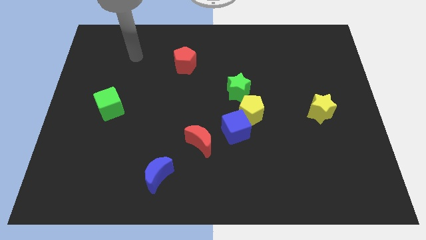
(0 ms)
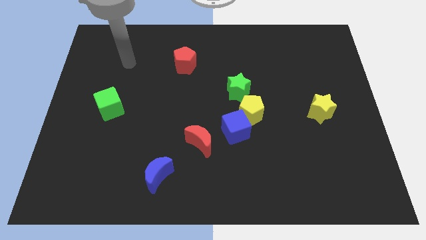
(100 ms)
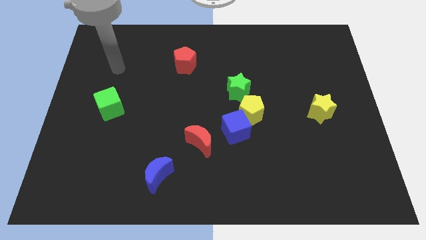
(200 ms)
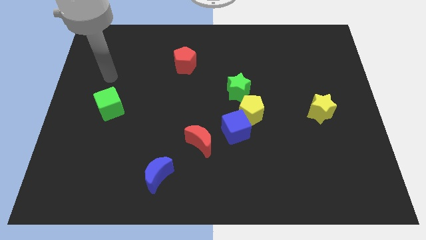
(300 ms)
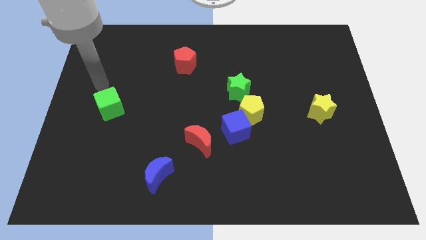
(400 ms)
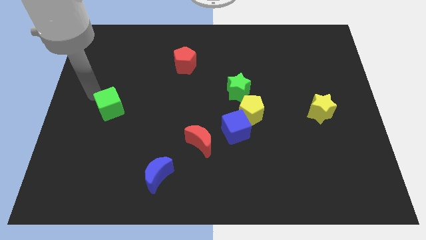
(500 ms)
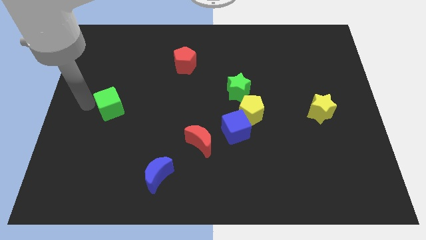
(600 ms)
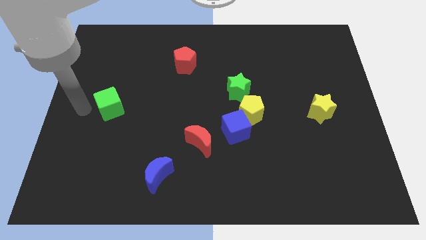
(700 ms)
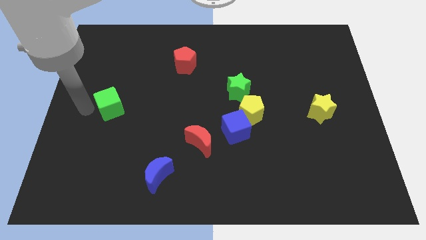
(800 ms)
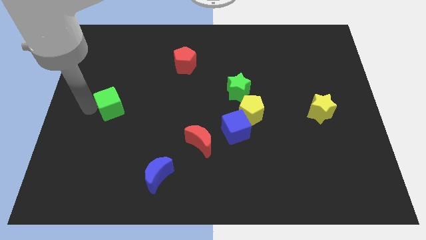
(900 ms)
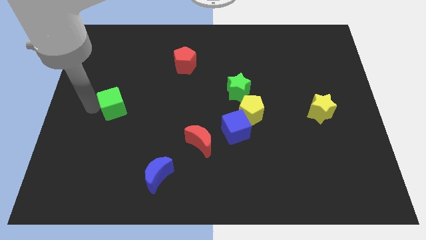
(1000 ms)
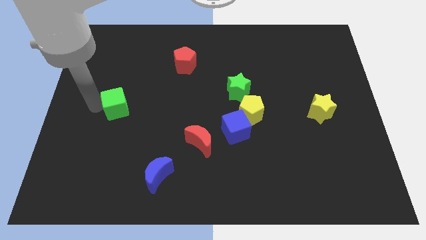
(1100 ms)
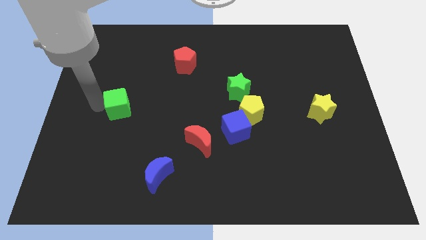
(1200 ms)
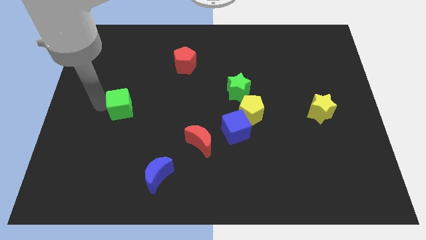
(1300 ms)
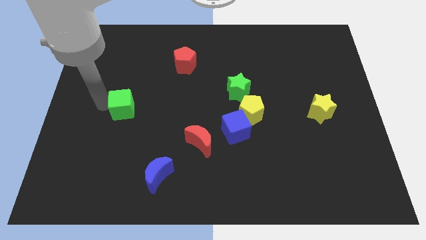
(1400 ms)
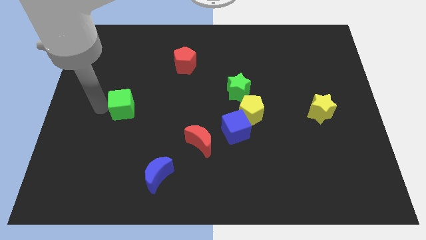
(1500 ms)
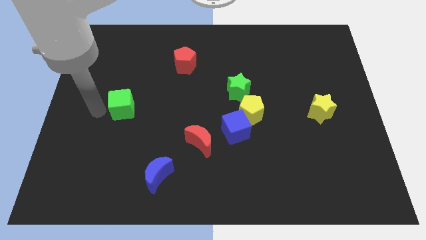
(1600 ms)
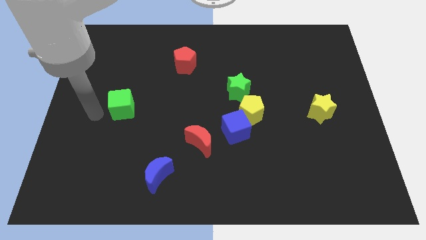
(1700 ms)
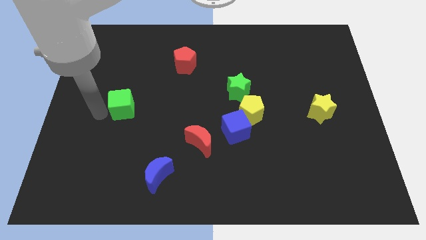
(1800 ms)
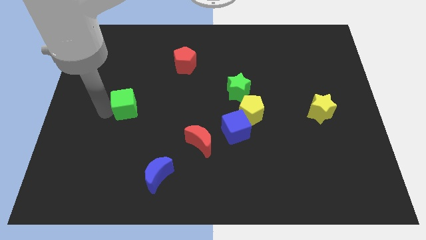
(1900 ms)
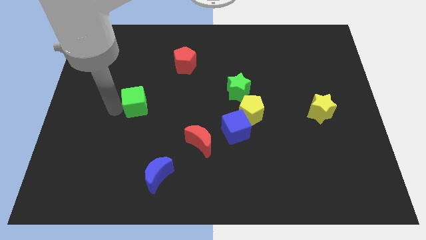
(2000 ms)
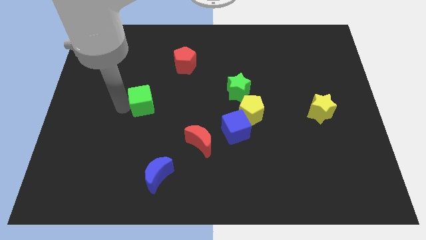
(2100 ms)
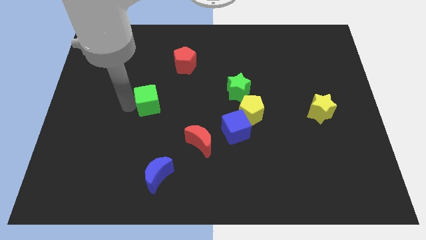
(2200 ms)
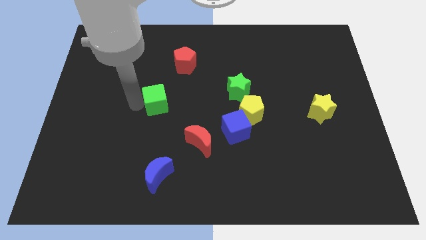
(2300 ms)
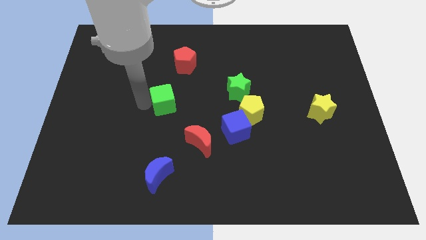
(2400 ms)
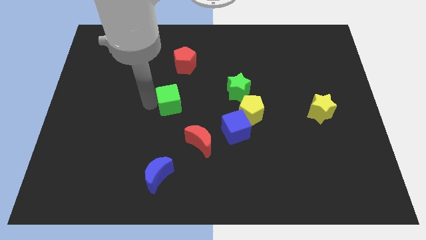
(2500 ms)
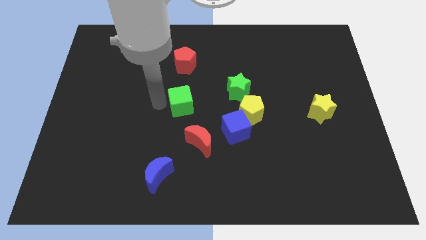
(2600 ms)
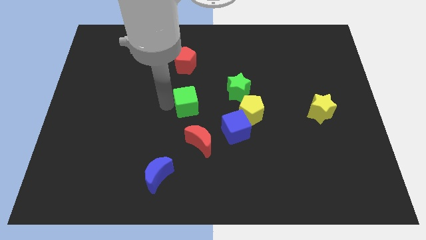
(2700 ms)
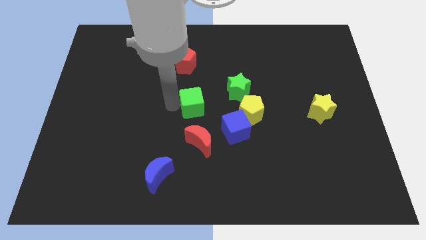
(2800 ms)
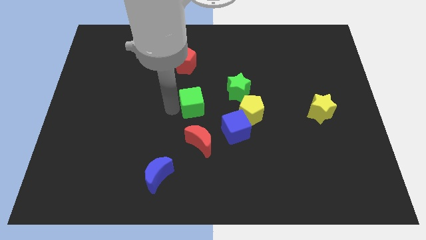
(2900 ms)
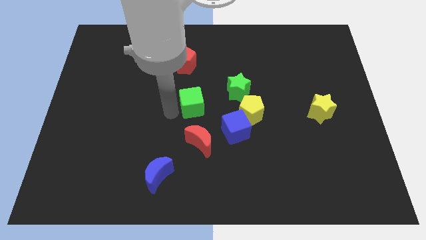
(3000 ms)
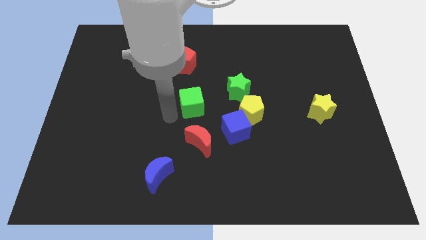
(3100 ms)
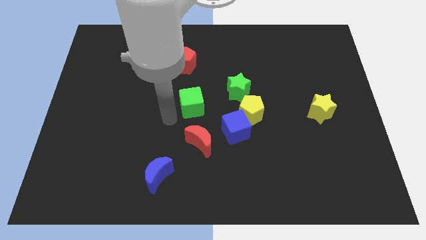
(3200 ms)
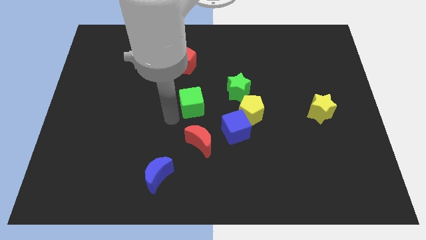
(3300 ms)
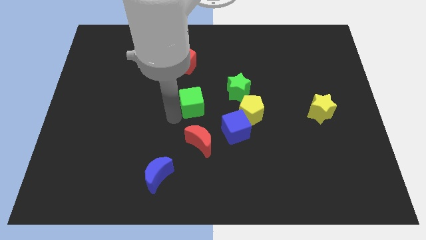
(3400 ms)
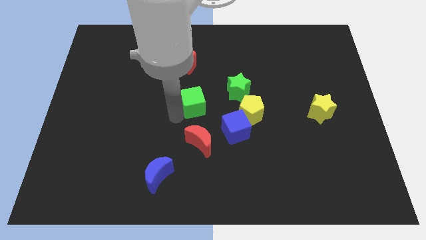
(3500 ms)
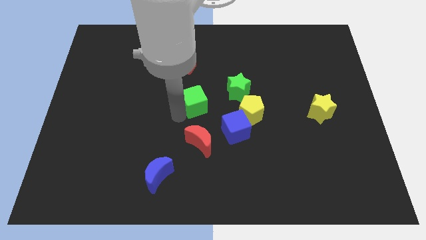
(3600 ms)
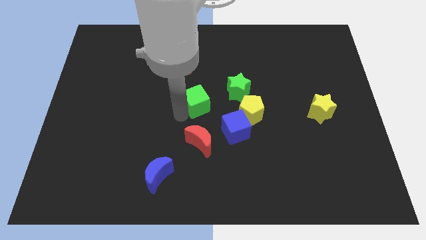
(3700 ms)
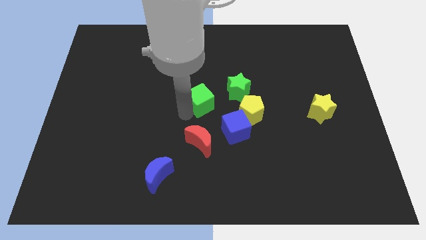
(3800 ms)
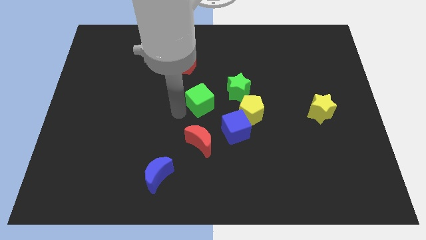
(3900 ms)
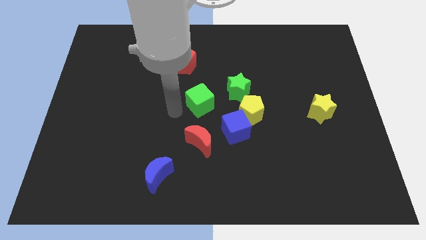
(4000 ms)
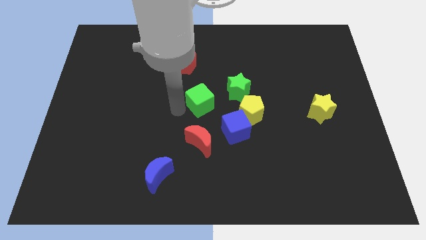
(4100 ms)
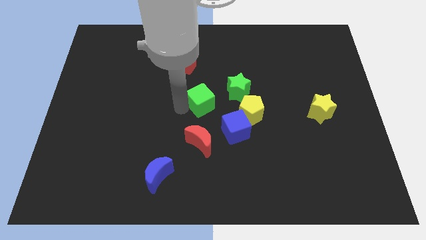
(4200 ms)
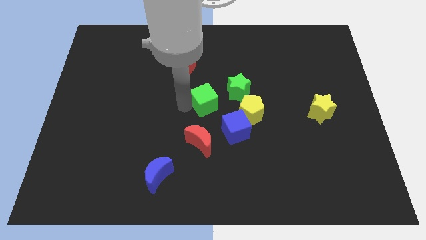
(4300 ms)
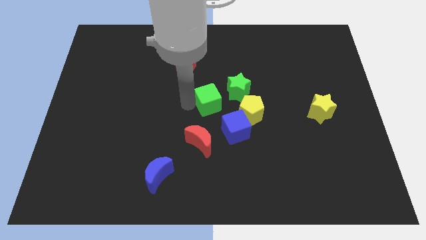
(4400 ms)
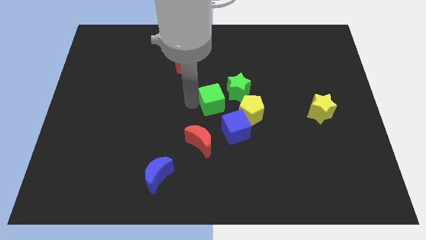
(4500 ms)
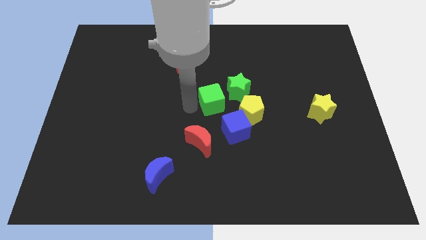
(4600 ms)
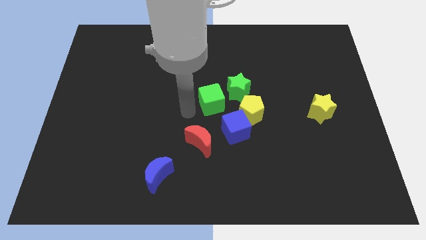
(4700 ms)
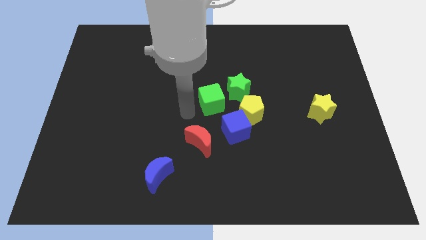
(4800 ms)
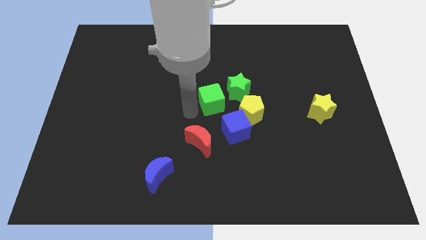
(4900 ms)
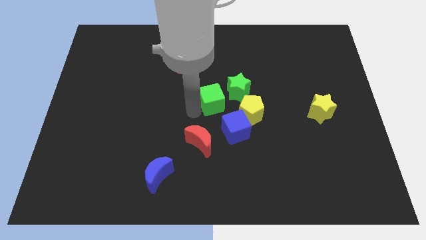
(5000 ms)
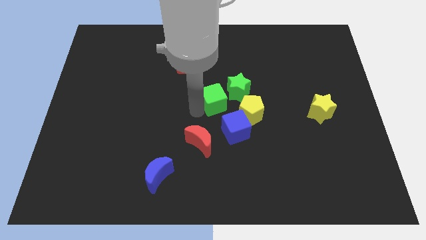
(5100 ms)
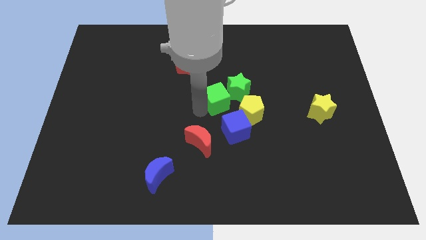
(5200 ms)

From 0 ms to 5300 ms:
push the green cube to the green star

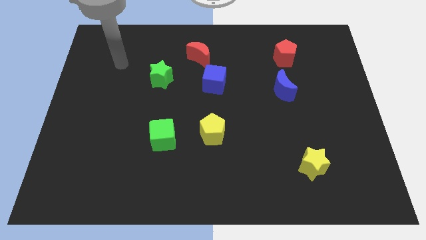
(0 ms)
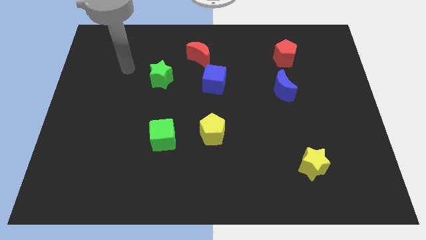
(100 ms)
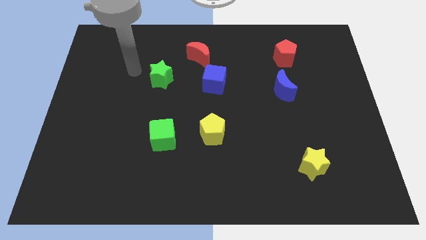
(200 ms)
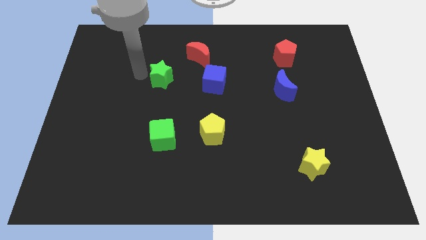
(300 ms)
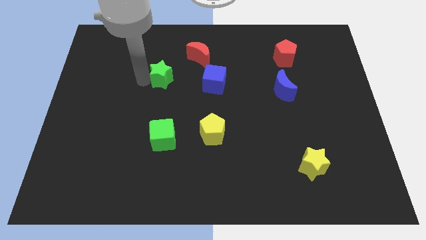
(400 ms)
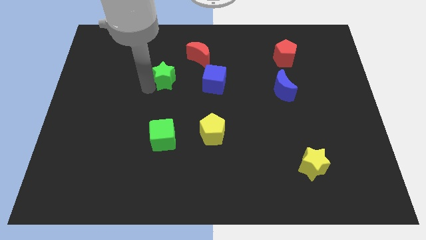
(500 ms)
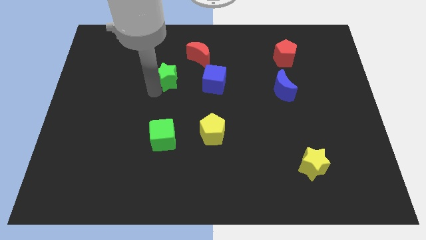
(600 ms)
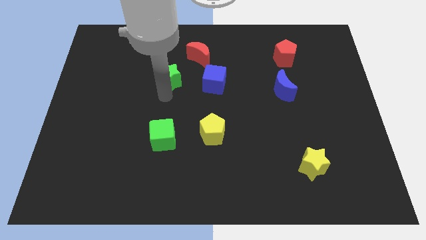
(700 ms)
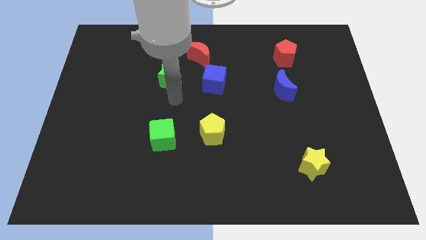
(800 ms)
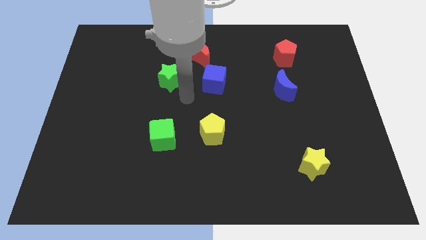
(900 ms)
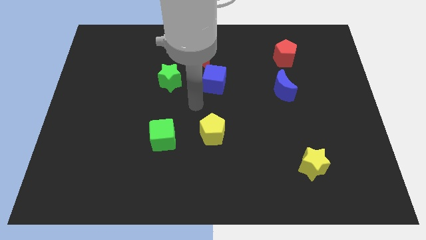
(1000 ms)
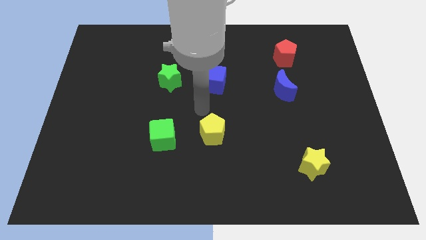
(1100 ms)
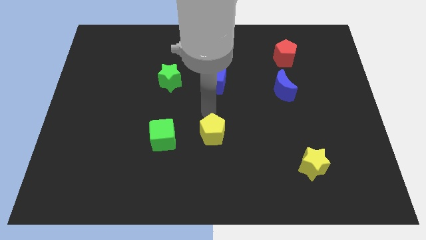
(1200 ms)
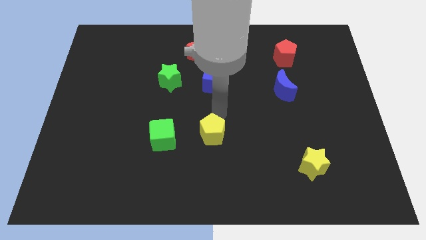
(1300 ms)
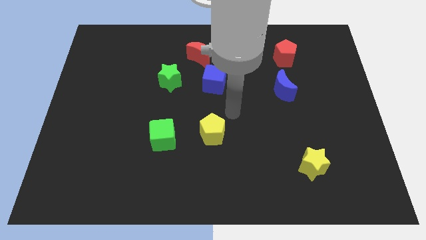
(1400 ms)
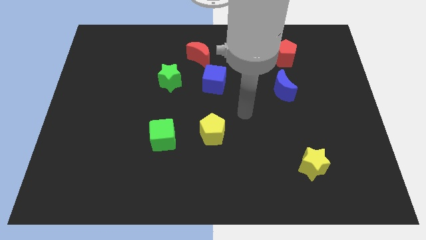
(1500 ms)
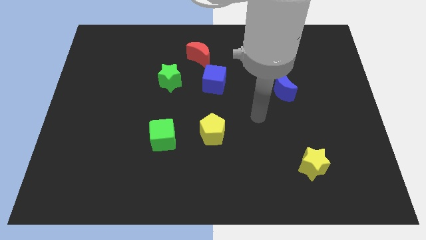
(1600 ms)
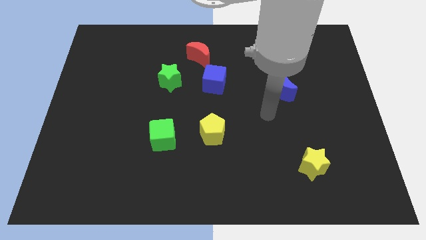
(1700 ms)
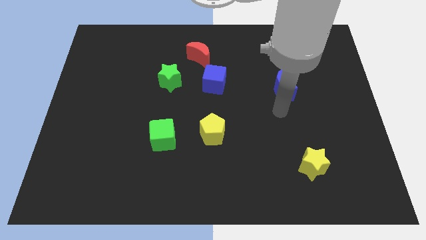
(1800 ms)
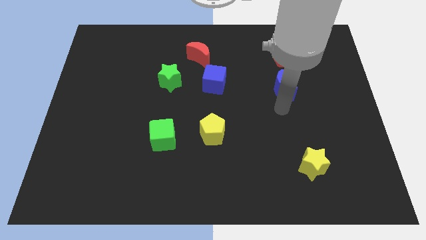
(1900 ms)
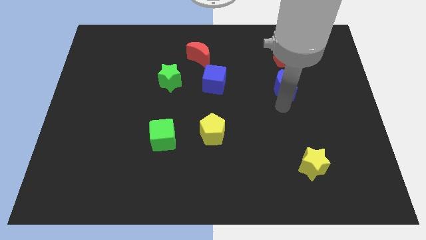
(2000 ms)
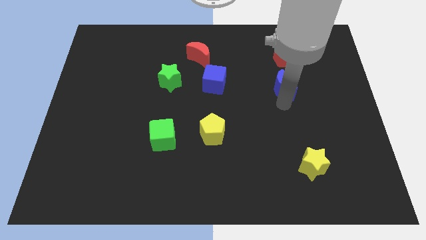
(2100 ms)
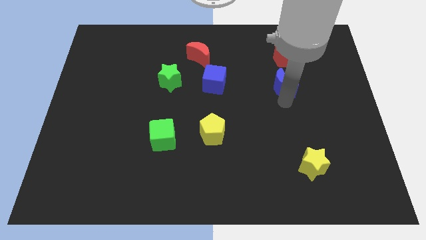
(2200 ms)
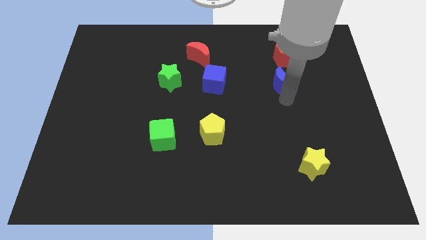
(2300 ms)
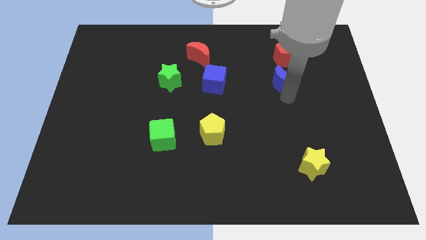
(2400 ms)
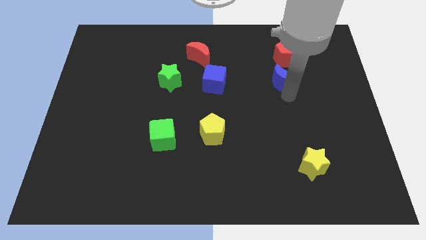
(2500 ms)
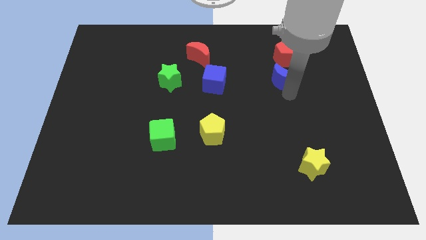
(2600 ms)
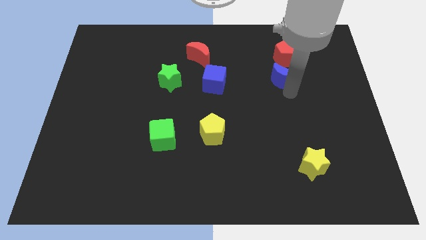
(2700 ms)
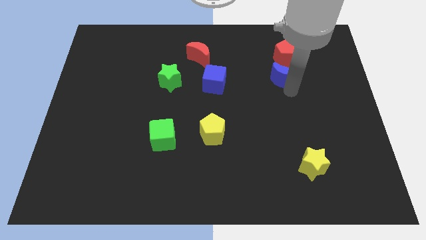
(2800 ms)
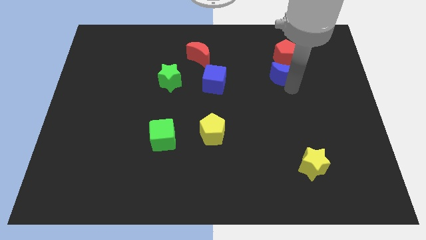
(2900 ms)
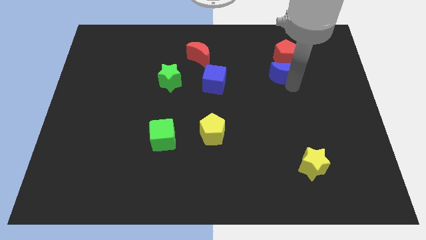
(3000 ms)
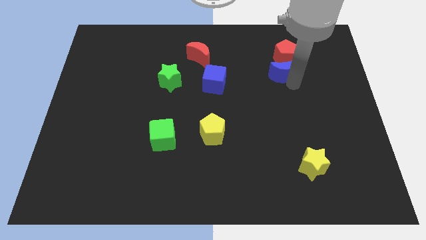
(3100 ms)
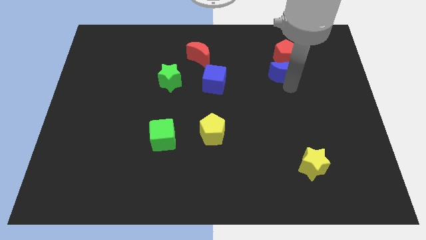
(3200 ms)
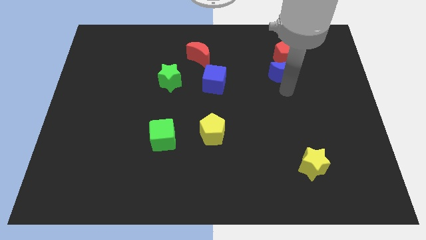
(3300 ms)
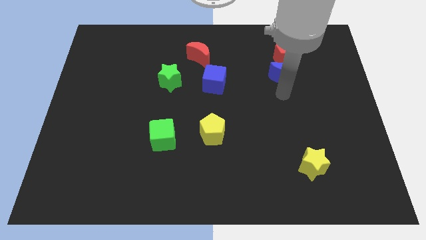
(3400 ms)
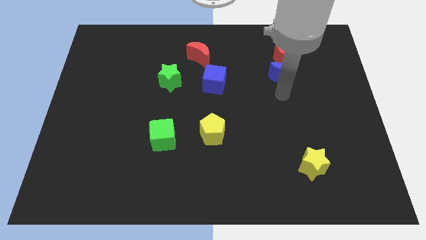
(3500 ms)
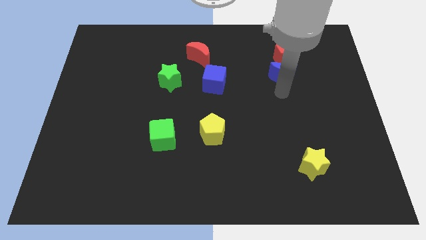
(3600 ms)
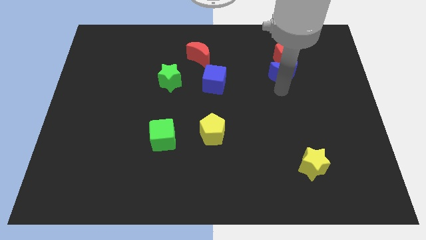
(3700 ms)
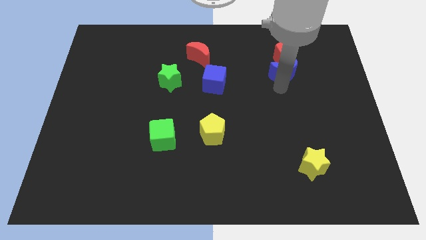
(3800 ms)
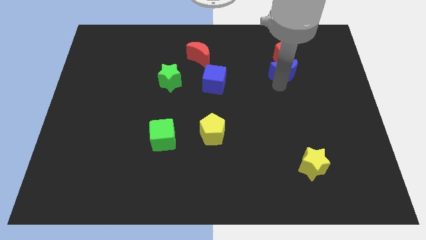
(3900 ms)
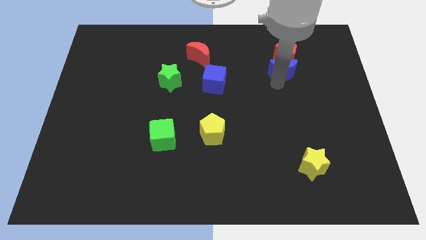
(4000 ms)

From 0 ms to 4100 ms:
move the blue moon towards the red pentagon
